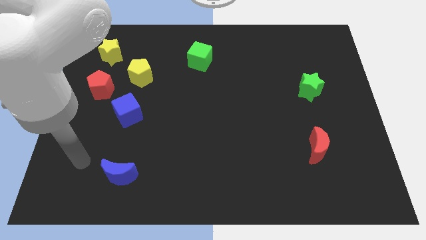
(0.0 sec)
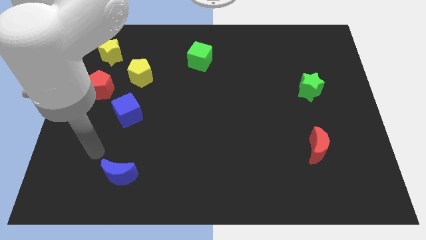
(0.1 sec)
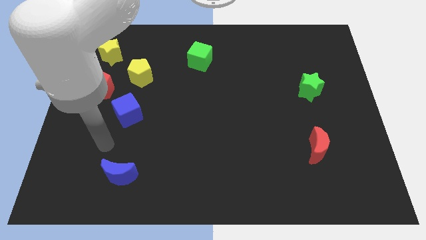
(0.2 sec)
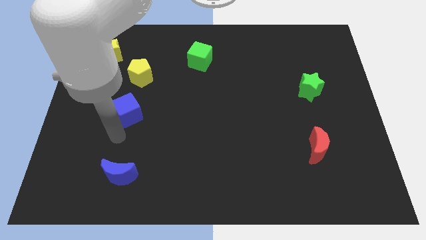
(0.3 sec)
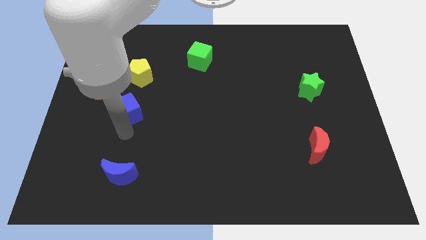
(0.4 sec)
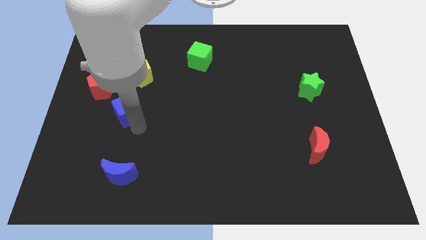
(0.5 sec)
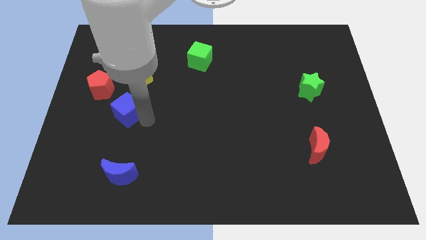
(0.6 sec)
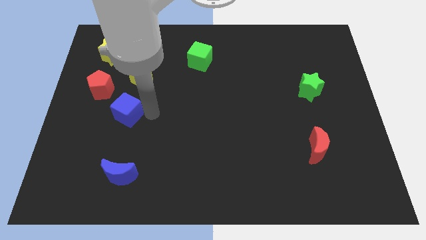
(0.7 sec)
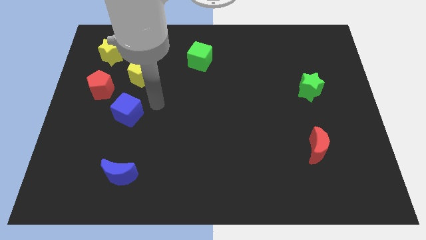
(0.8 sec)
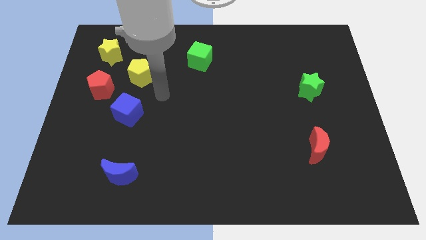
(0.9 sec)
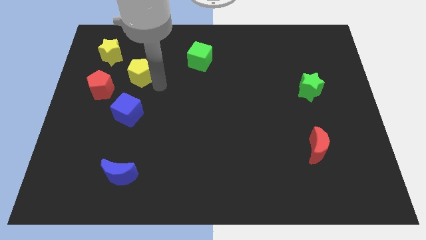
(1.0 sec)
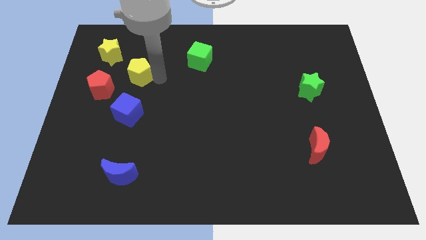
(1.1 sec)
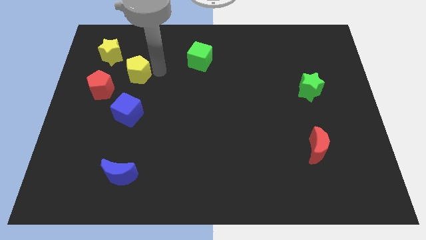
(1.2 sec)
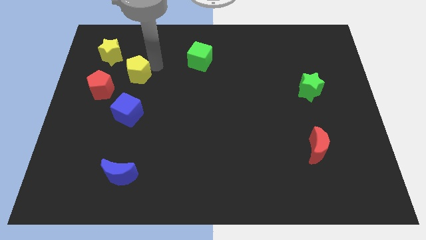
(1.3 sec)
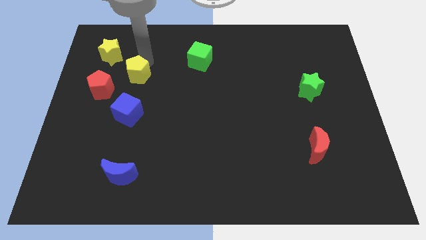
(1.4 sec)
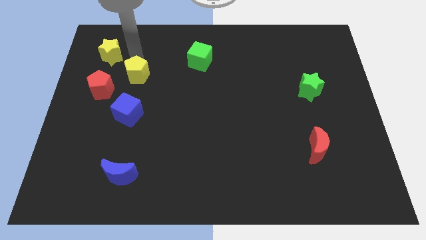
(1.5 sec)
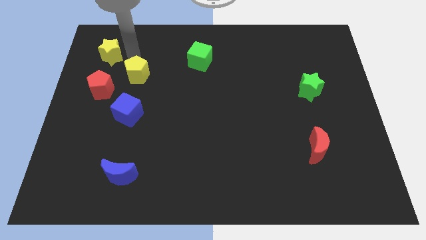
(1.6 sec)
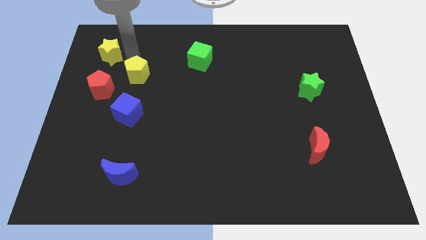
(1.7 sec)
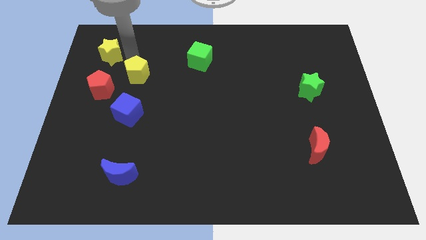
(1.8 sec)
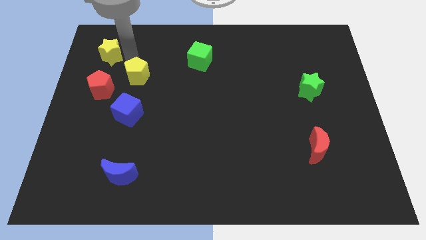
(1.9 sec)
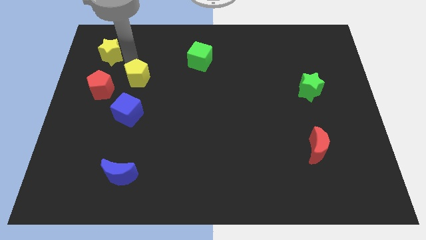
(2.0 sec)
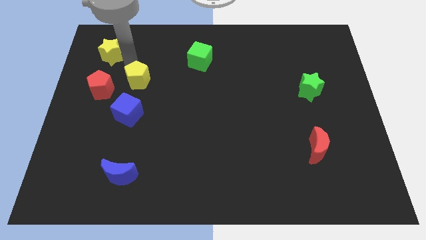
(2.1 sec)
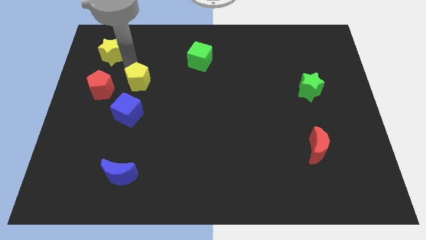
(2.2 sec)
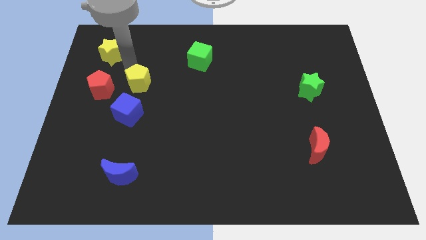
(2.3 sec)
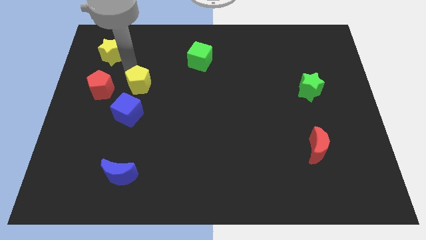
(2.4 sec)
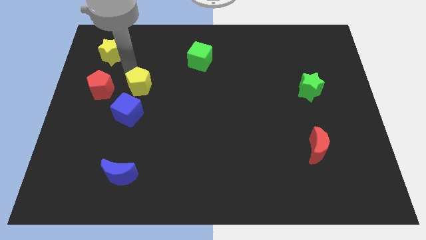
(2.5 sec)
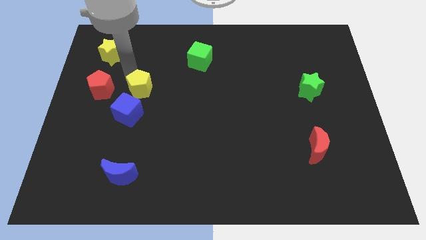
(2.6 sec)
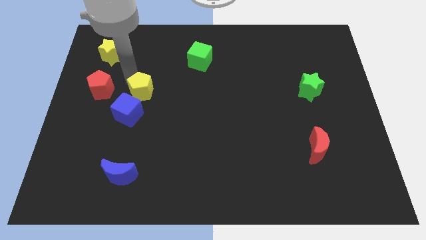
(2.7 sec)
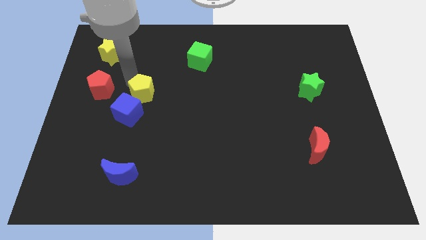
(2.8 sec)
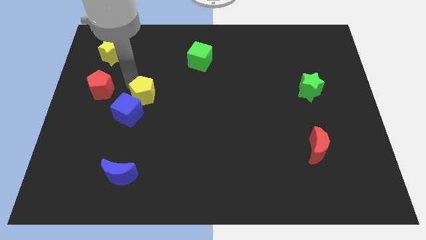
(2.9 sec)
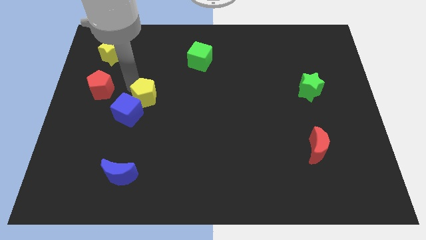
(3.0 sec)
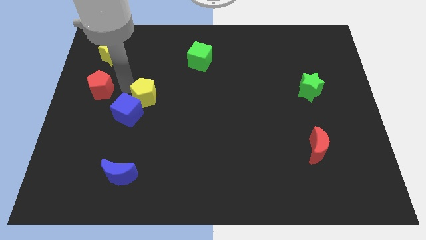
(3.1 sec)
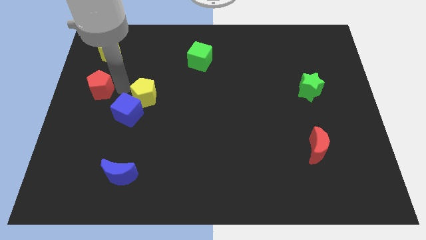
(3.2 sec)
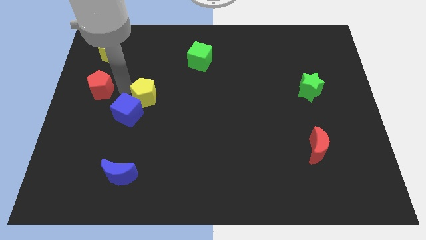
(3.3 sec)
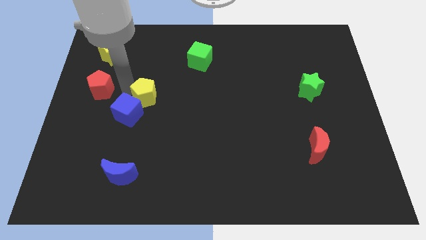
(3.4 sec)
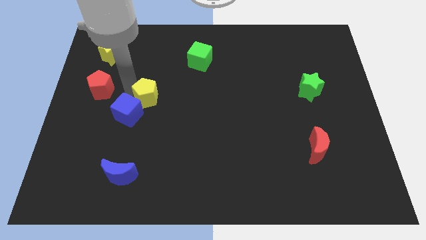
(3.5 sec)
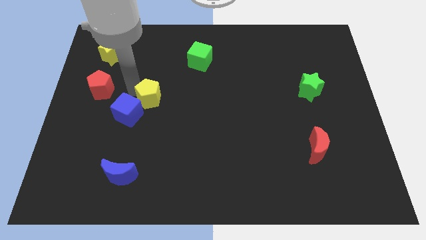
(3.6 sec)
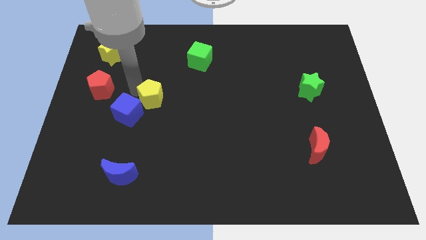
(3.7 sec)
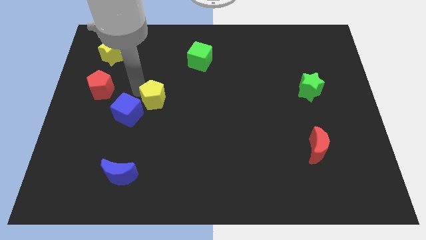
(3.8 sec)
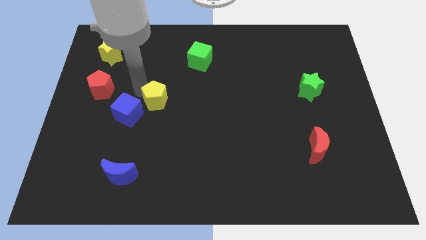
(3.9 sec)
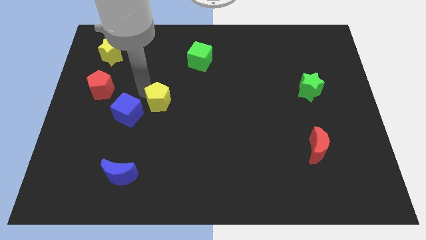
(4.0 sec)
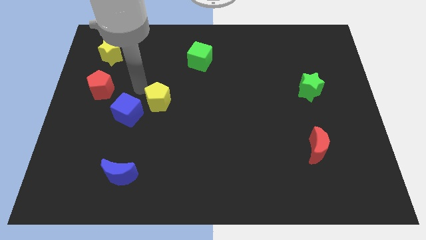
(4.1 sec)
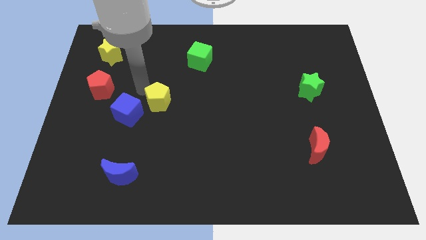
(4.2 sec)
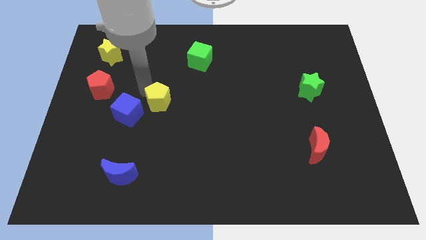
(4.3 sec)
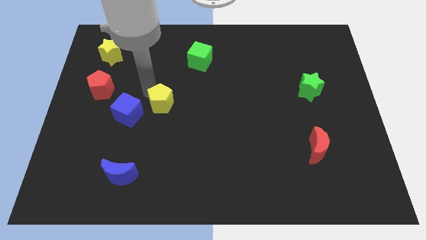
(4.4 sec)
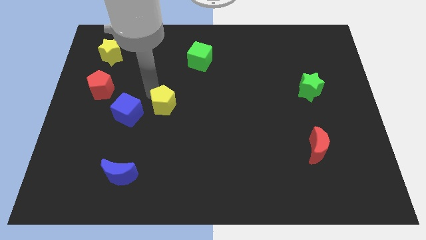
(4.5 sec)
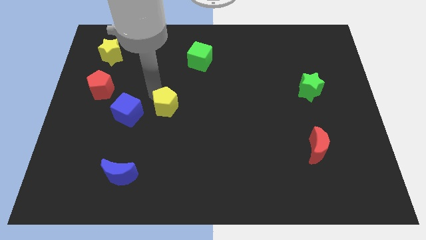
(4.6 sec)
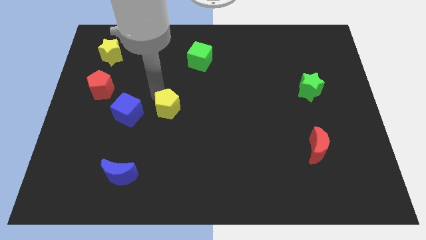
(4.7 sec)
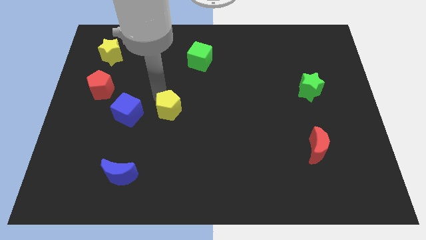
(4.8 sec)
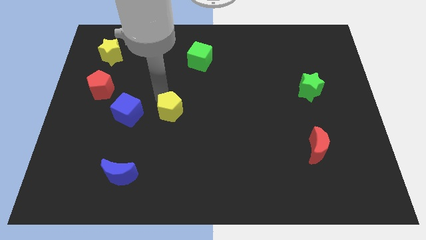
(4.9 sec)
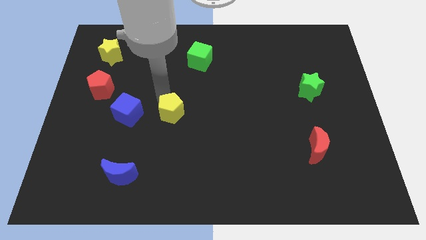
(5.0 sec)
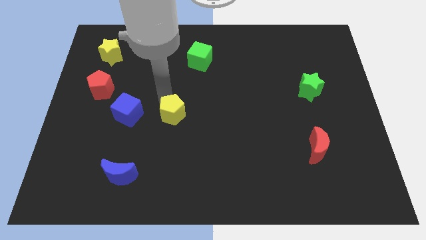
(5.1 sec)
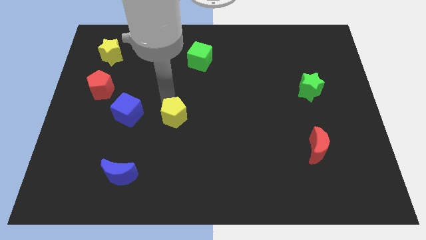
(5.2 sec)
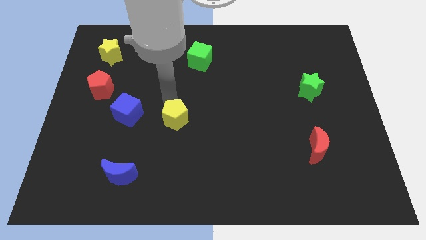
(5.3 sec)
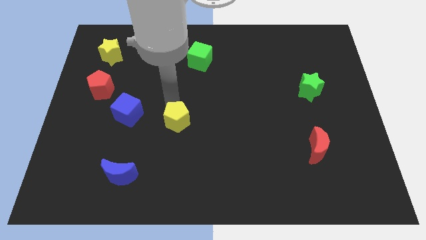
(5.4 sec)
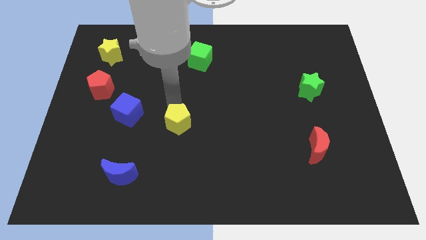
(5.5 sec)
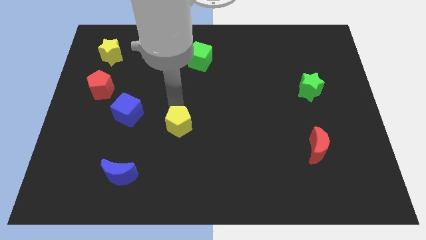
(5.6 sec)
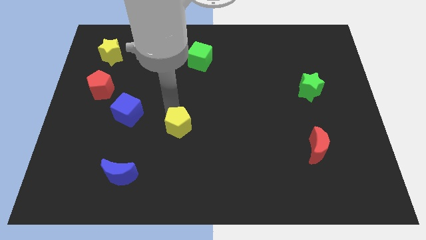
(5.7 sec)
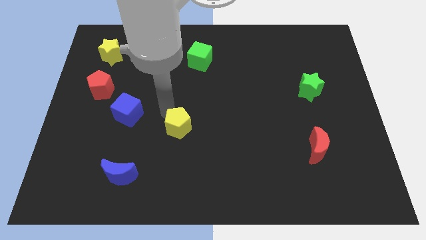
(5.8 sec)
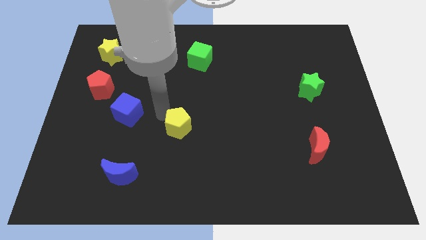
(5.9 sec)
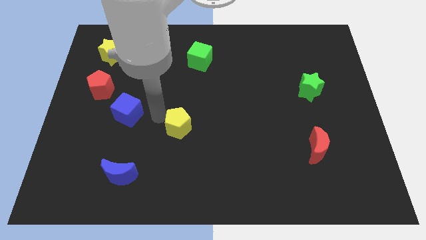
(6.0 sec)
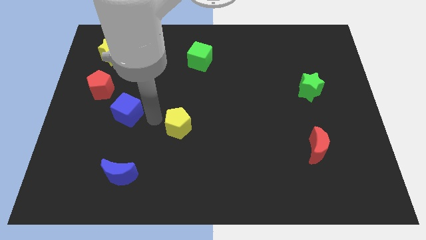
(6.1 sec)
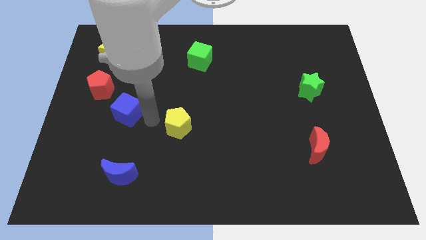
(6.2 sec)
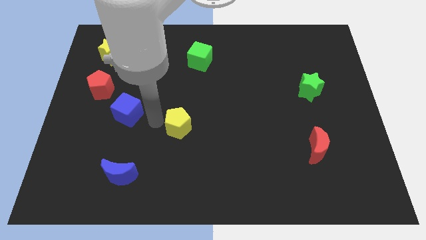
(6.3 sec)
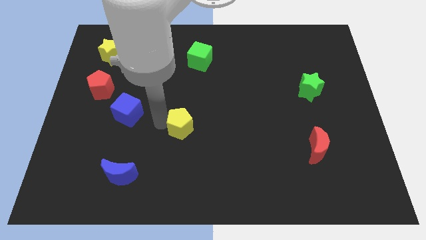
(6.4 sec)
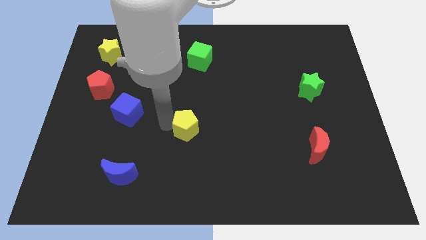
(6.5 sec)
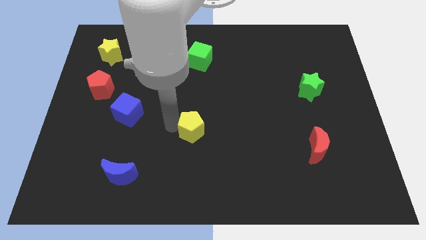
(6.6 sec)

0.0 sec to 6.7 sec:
move the yellow pentagon down and to the right diagonally

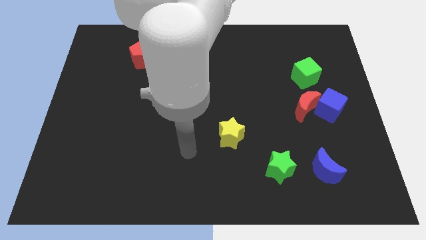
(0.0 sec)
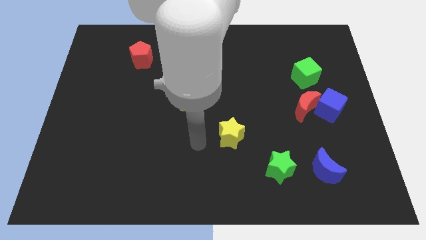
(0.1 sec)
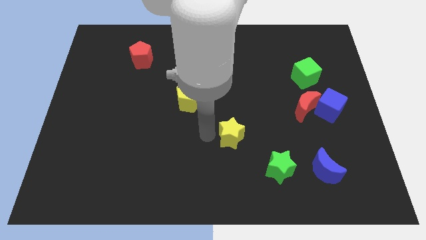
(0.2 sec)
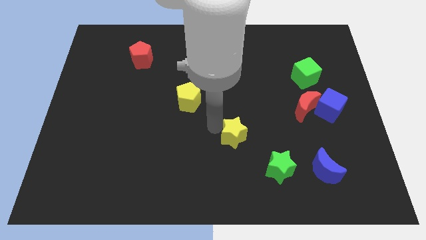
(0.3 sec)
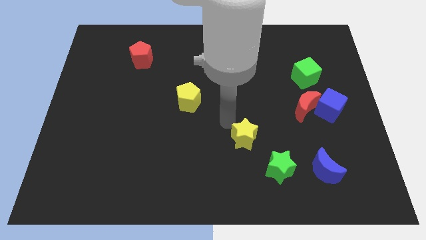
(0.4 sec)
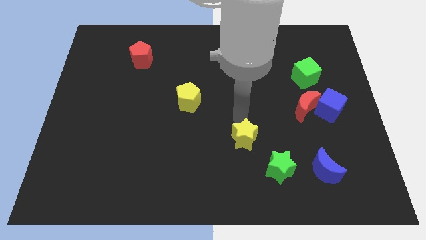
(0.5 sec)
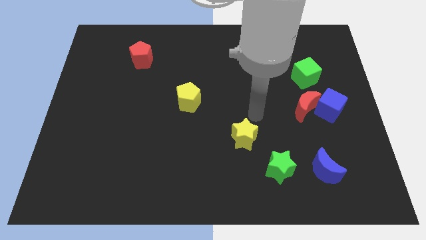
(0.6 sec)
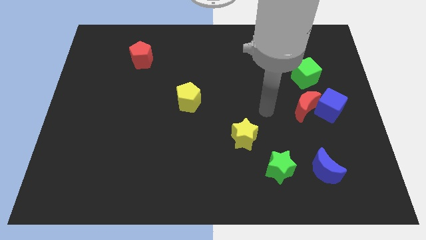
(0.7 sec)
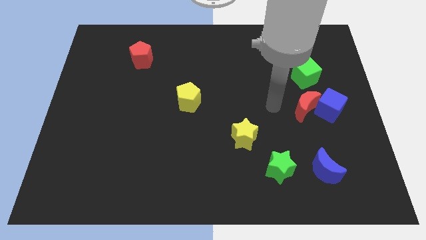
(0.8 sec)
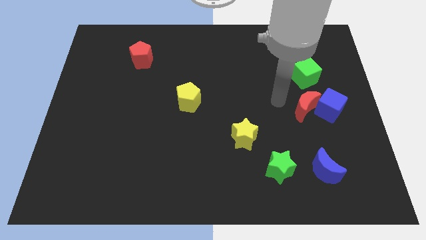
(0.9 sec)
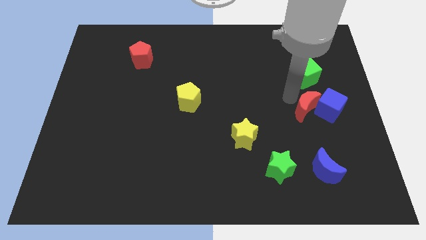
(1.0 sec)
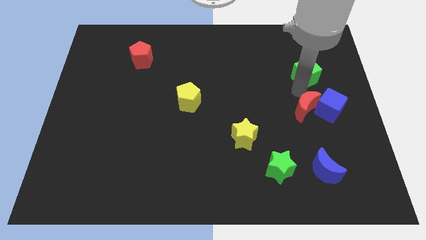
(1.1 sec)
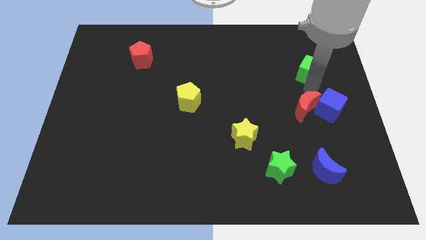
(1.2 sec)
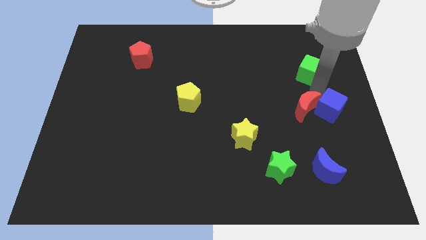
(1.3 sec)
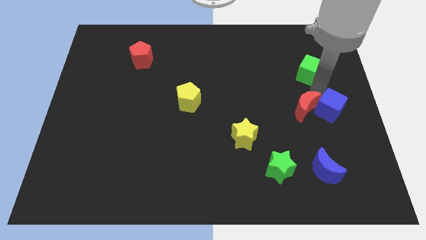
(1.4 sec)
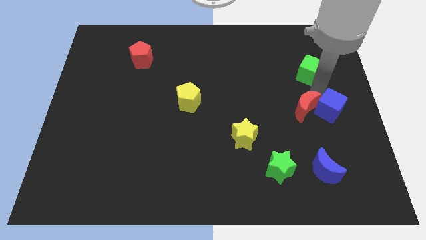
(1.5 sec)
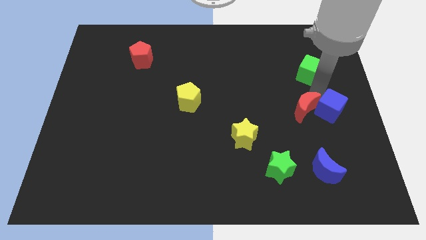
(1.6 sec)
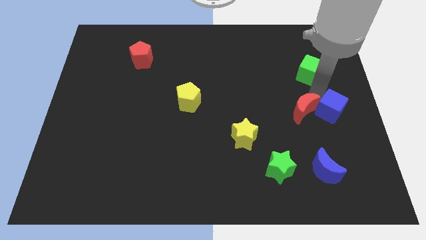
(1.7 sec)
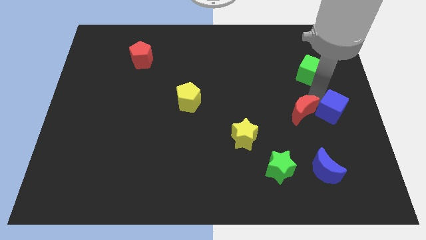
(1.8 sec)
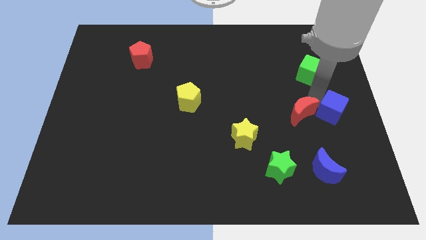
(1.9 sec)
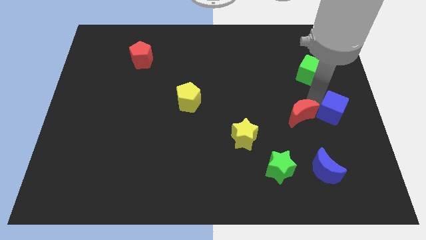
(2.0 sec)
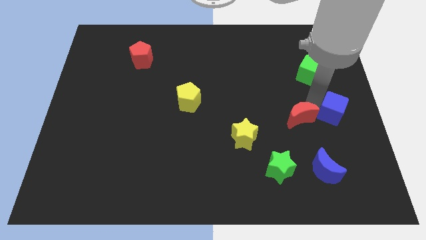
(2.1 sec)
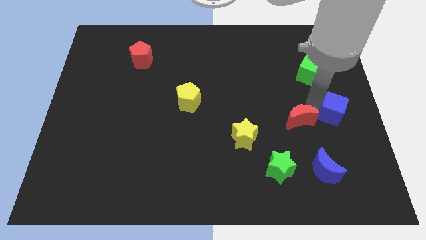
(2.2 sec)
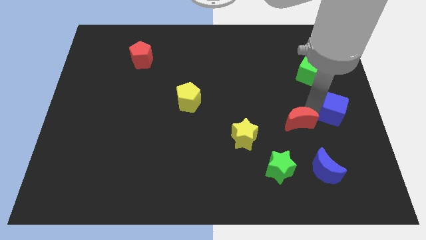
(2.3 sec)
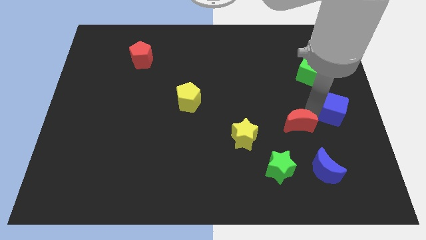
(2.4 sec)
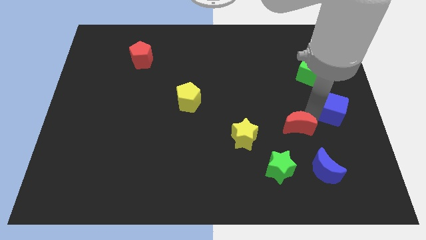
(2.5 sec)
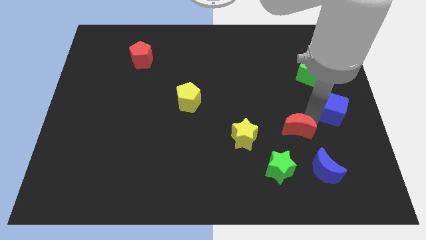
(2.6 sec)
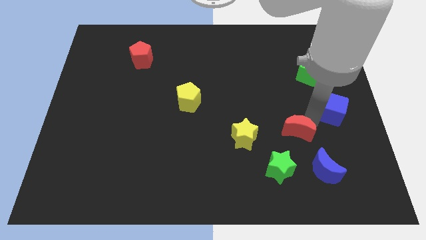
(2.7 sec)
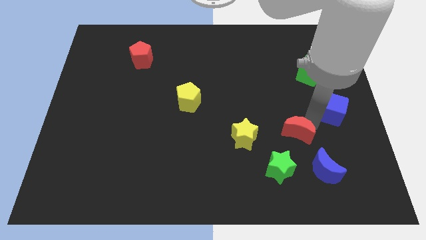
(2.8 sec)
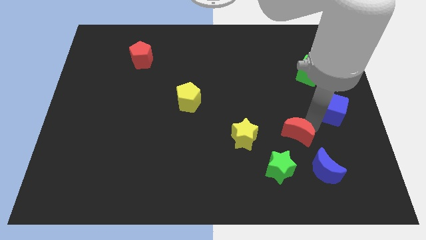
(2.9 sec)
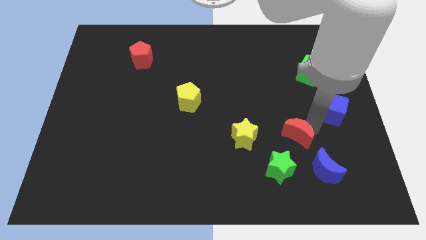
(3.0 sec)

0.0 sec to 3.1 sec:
slide the red moon a little diagonally downwards and to the left